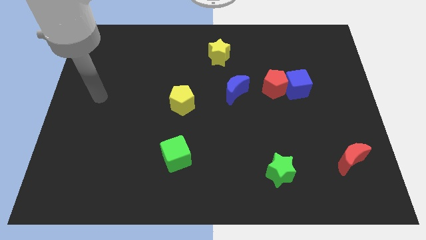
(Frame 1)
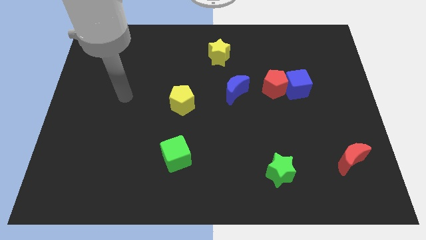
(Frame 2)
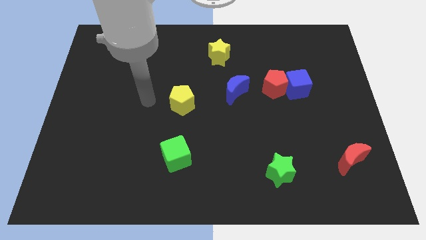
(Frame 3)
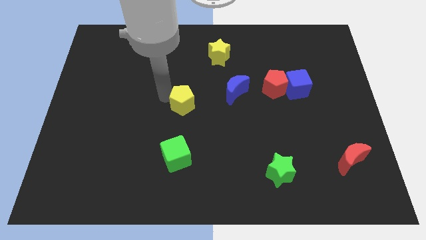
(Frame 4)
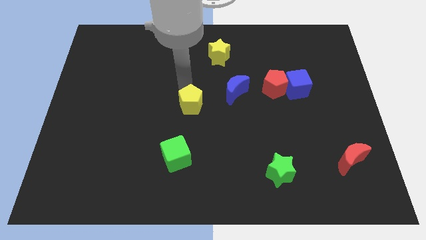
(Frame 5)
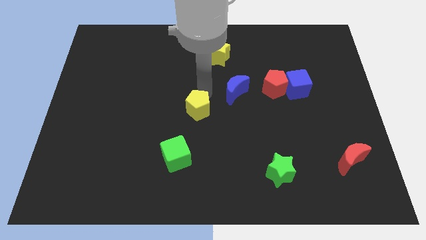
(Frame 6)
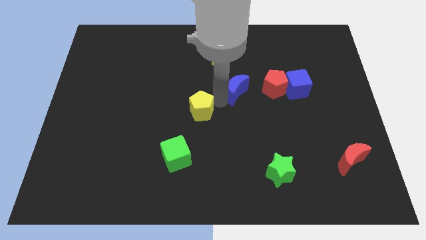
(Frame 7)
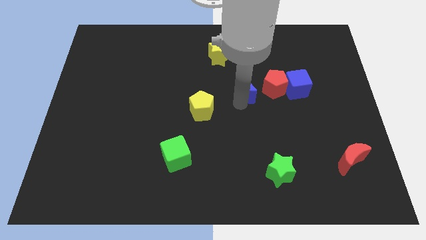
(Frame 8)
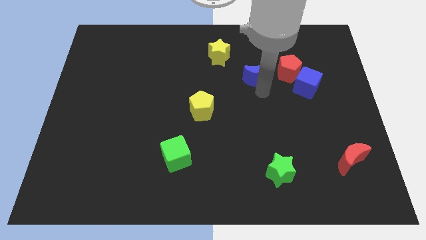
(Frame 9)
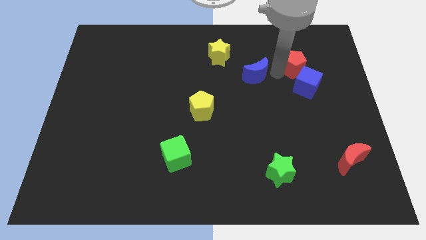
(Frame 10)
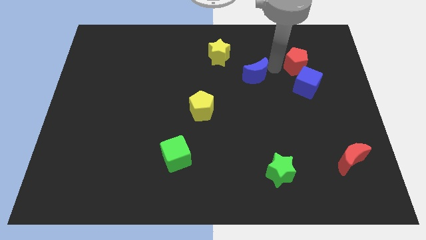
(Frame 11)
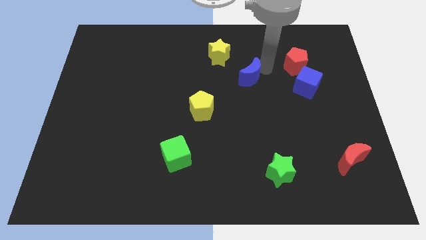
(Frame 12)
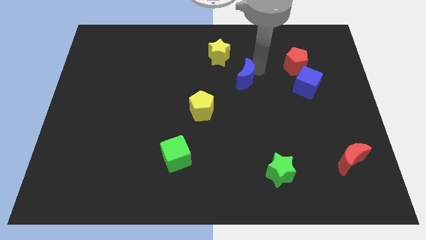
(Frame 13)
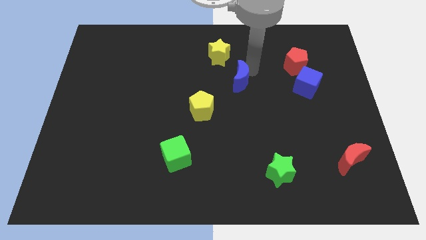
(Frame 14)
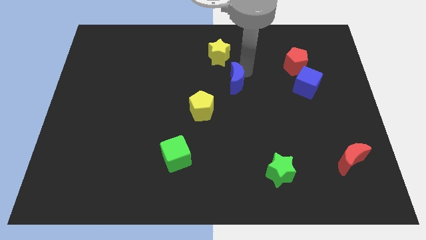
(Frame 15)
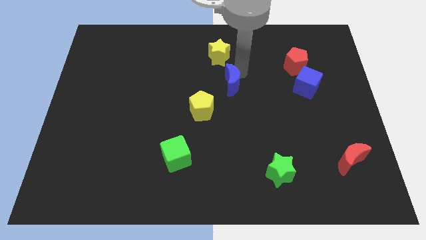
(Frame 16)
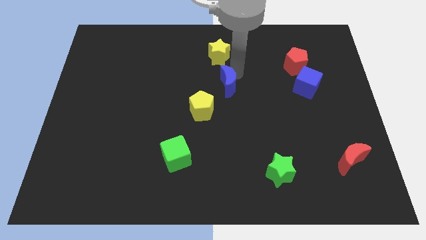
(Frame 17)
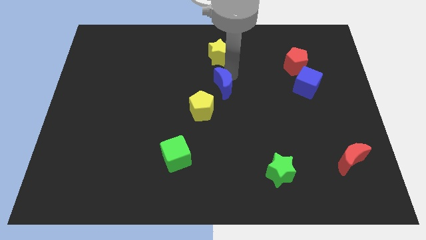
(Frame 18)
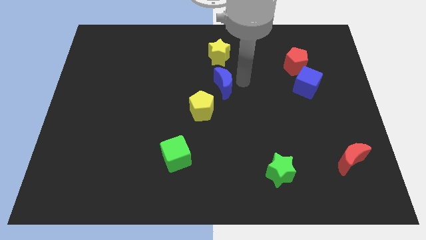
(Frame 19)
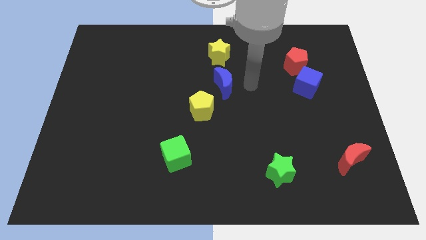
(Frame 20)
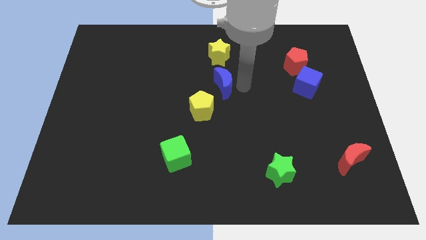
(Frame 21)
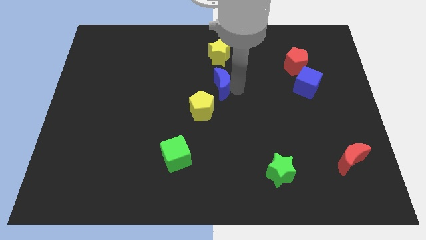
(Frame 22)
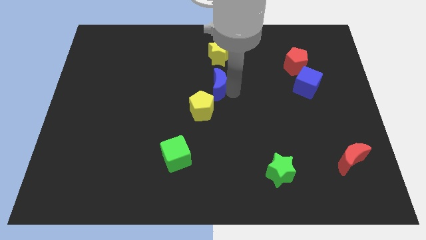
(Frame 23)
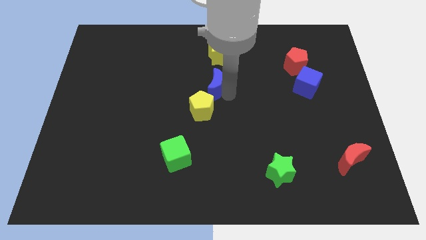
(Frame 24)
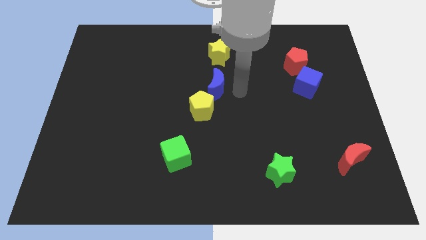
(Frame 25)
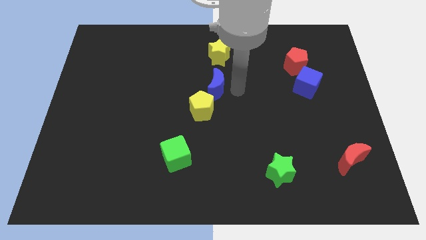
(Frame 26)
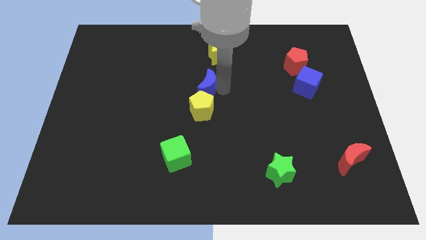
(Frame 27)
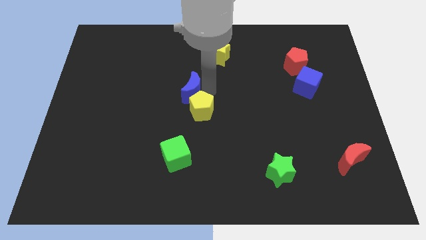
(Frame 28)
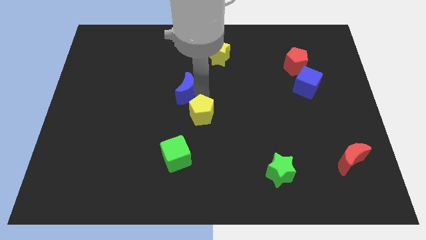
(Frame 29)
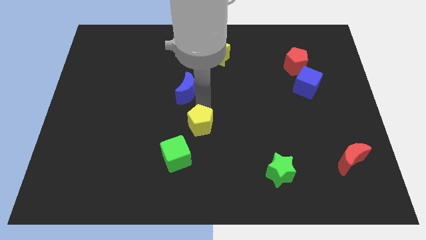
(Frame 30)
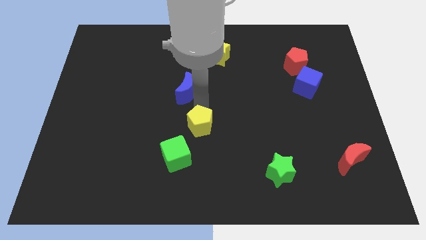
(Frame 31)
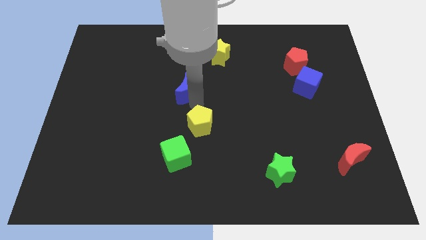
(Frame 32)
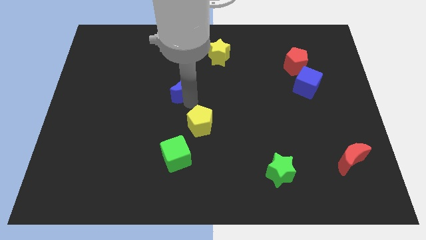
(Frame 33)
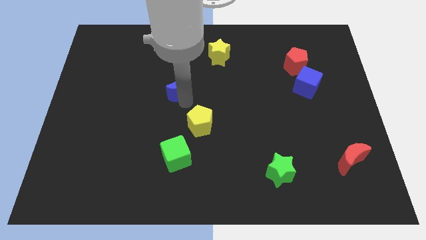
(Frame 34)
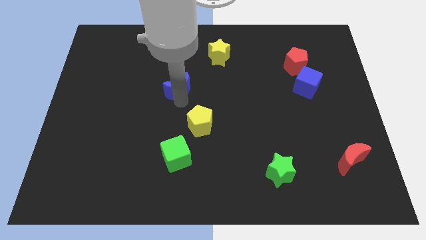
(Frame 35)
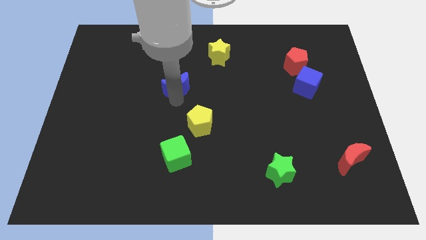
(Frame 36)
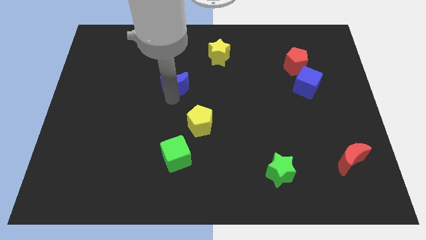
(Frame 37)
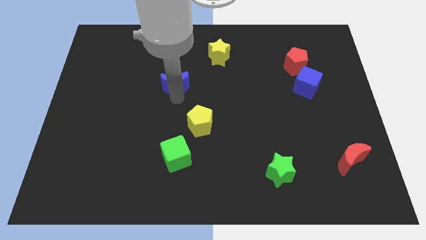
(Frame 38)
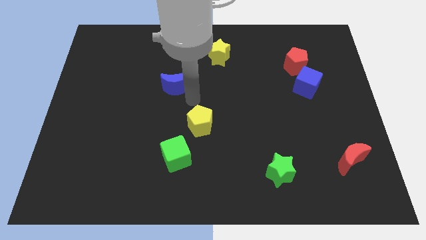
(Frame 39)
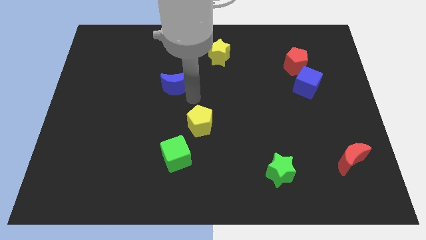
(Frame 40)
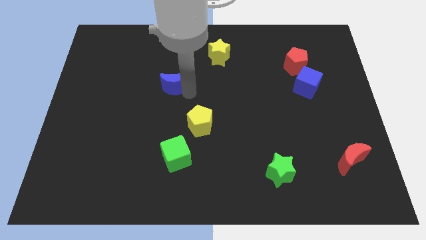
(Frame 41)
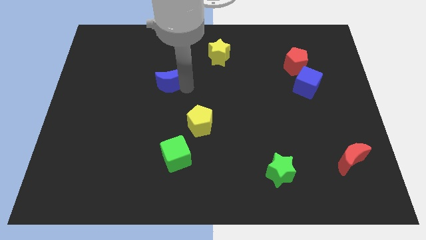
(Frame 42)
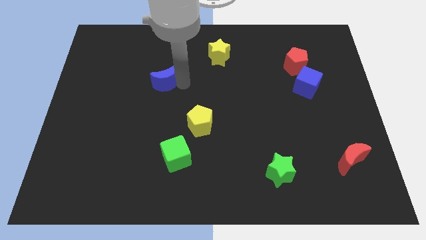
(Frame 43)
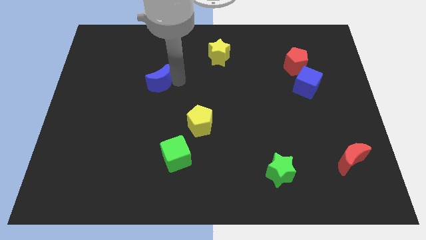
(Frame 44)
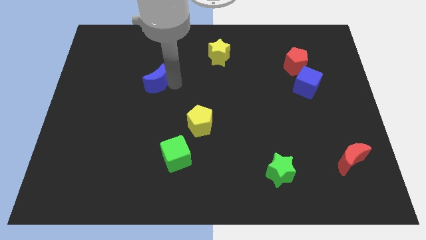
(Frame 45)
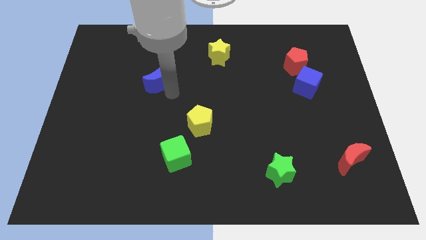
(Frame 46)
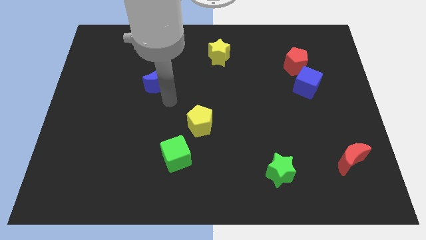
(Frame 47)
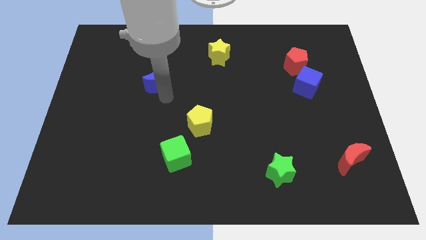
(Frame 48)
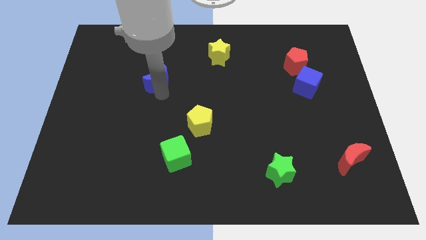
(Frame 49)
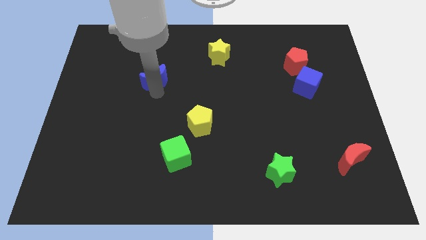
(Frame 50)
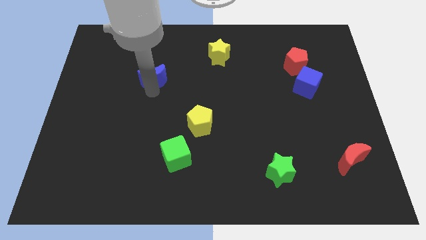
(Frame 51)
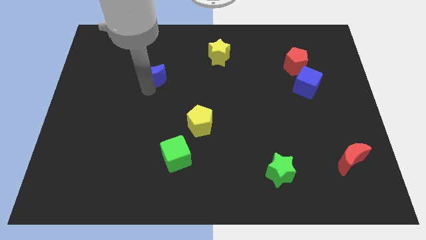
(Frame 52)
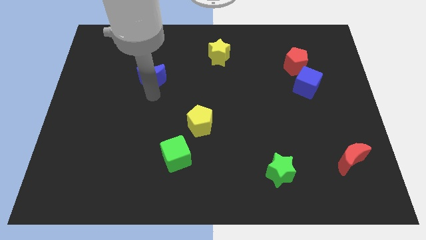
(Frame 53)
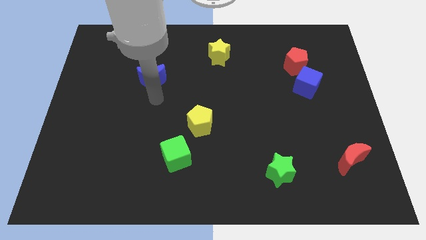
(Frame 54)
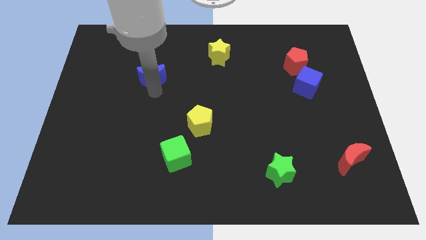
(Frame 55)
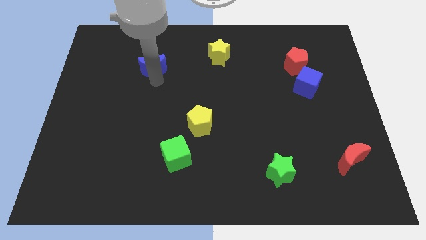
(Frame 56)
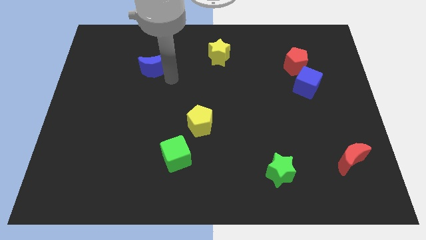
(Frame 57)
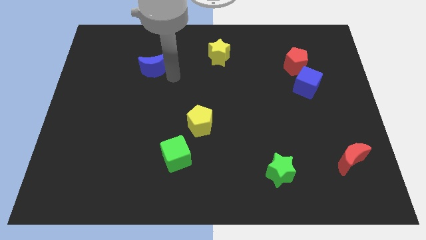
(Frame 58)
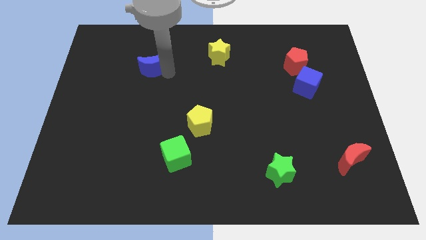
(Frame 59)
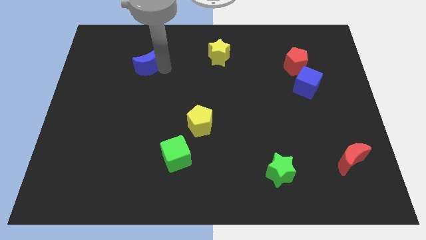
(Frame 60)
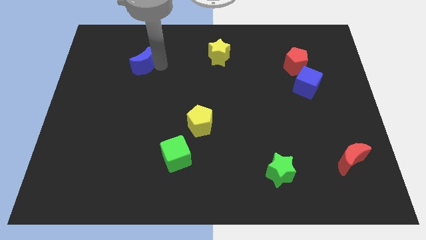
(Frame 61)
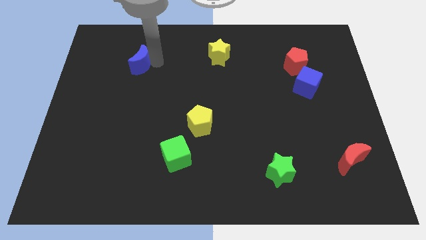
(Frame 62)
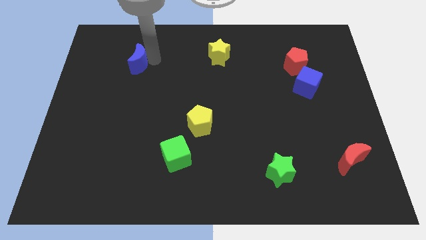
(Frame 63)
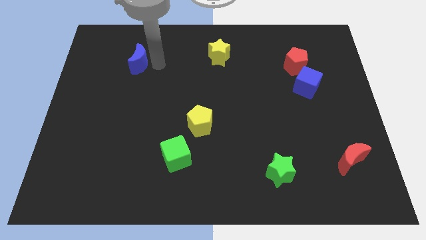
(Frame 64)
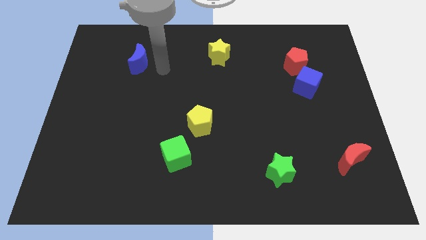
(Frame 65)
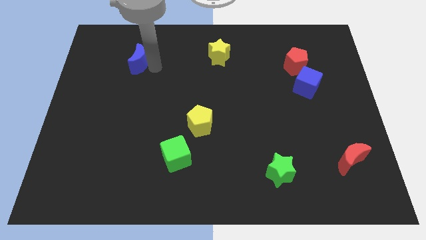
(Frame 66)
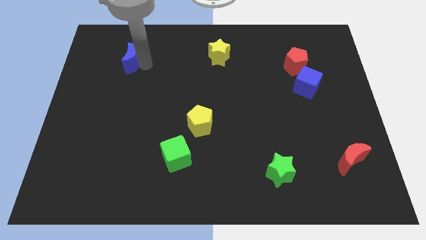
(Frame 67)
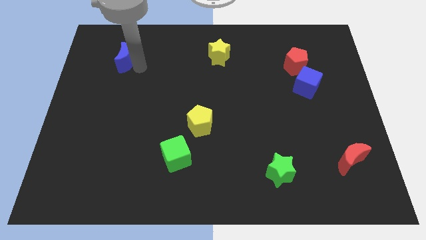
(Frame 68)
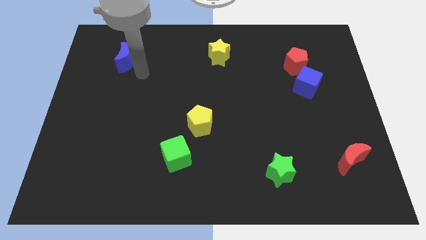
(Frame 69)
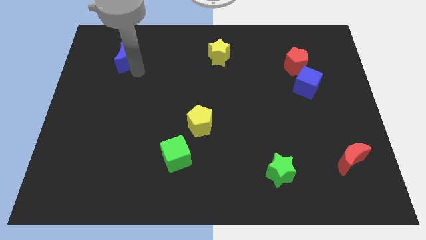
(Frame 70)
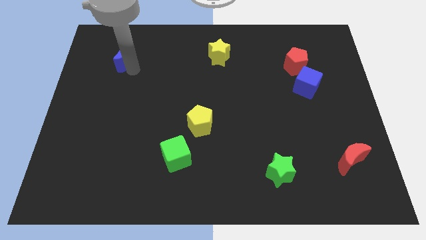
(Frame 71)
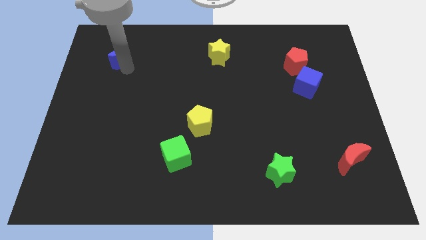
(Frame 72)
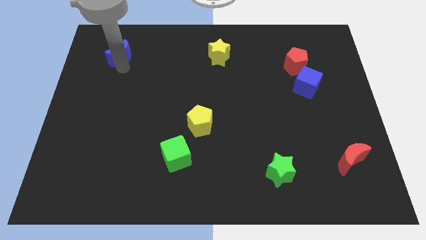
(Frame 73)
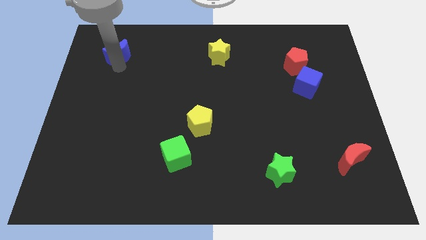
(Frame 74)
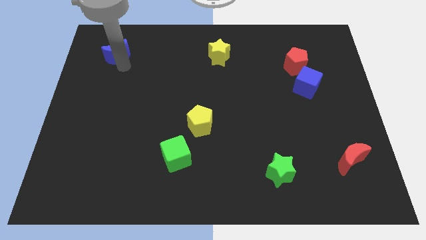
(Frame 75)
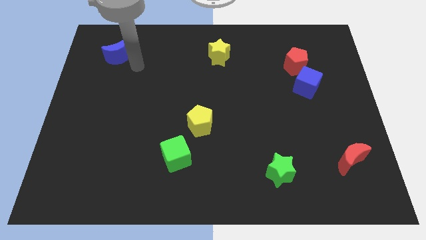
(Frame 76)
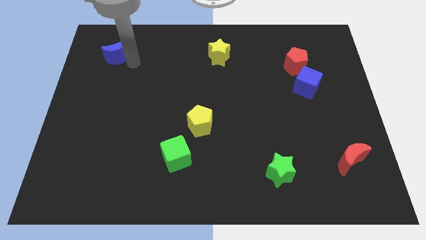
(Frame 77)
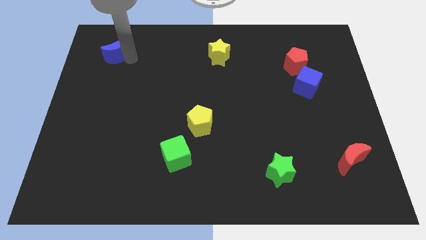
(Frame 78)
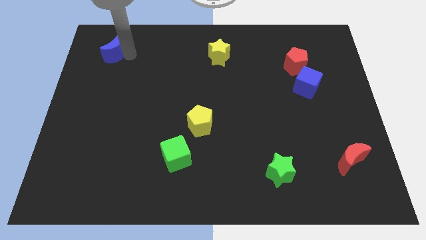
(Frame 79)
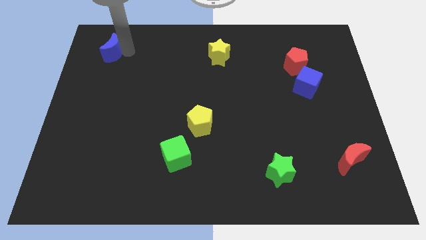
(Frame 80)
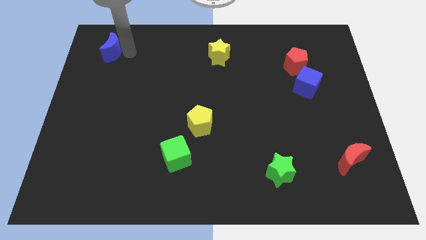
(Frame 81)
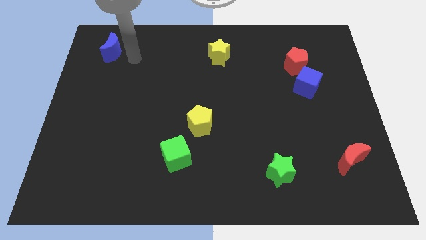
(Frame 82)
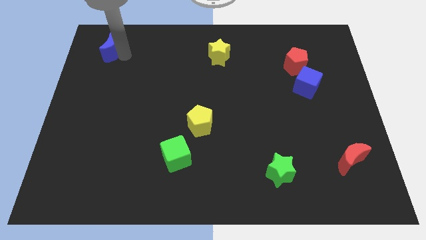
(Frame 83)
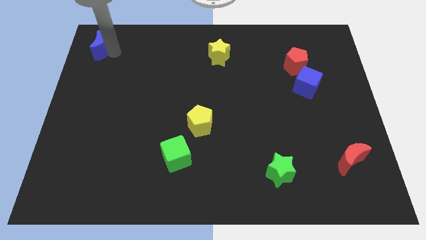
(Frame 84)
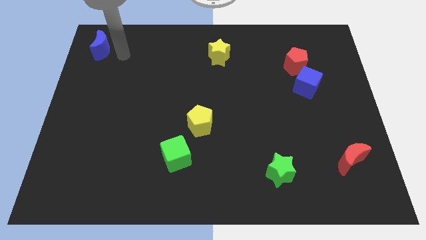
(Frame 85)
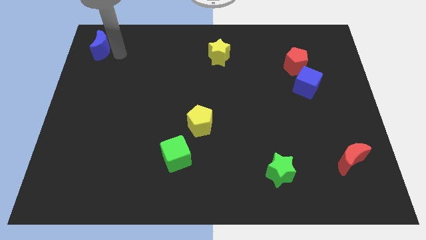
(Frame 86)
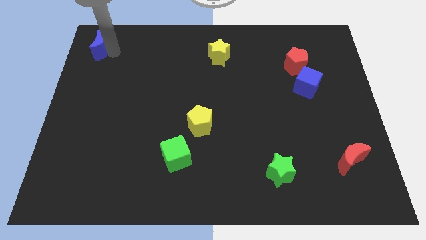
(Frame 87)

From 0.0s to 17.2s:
slide the blue moon to the top left corner
